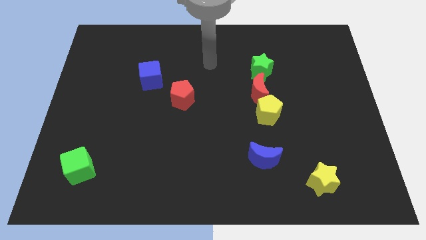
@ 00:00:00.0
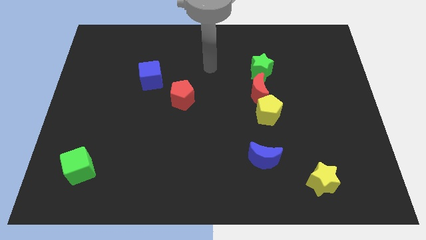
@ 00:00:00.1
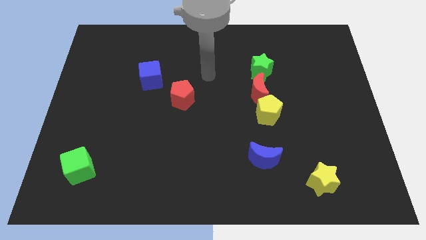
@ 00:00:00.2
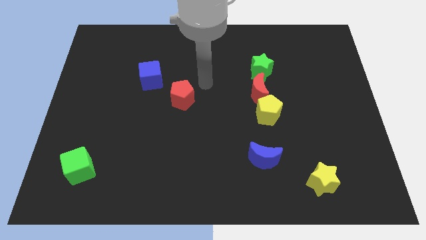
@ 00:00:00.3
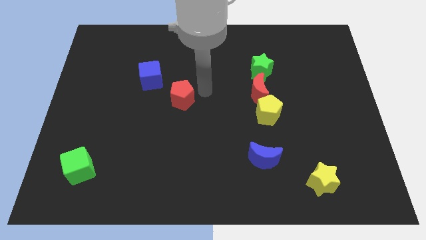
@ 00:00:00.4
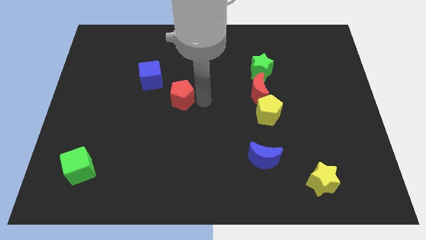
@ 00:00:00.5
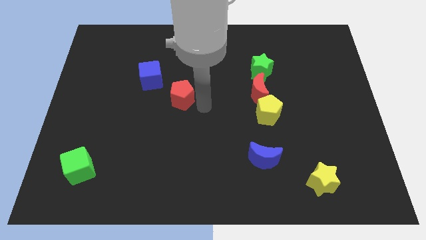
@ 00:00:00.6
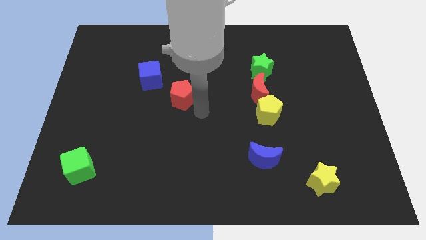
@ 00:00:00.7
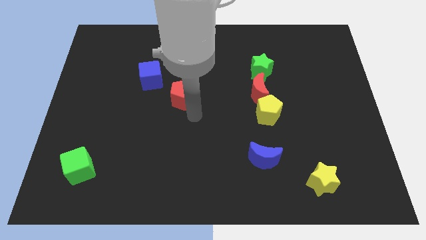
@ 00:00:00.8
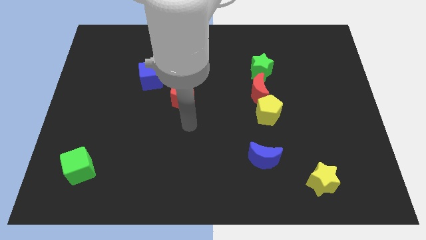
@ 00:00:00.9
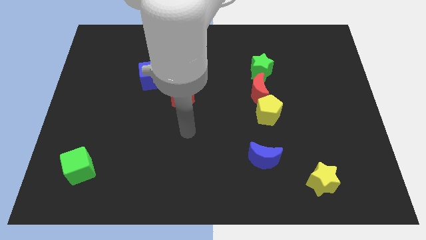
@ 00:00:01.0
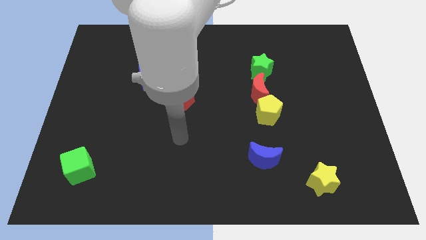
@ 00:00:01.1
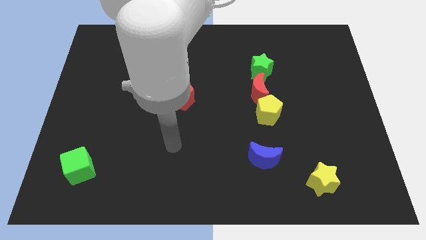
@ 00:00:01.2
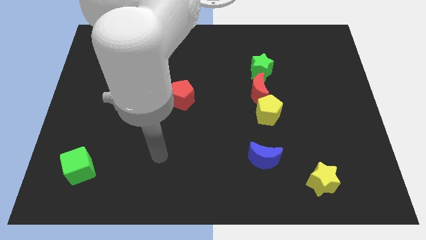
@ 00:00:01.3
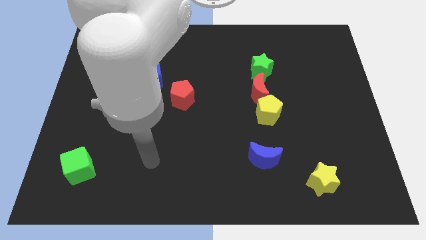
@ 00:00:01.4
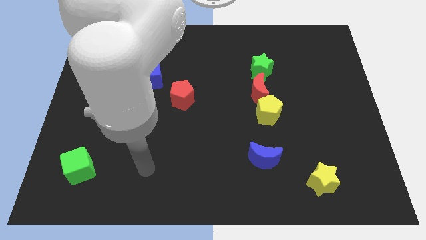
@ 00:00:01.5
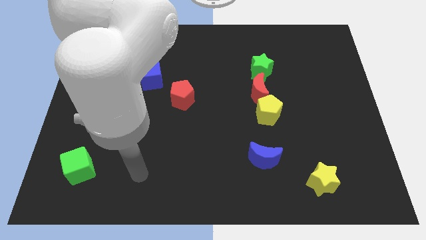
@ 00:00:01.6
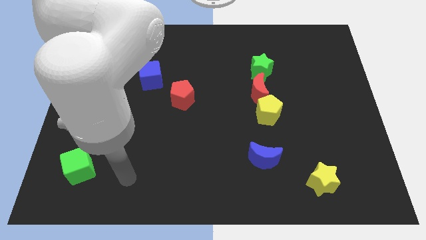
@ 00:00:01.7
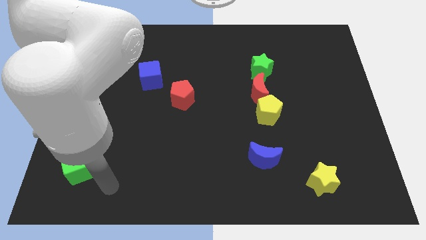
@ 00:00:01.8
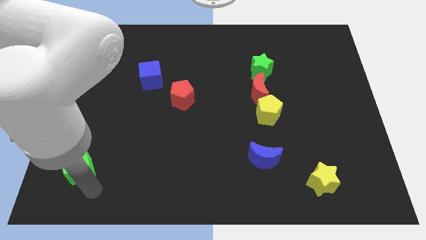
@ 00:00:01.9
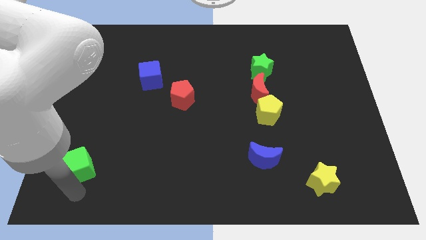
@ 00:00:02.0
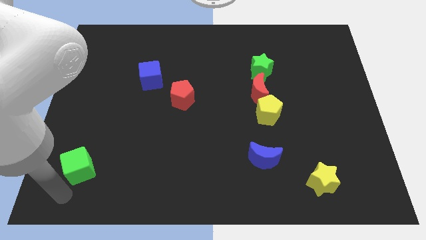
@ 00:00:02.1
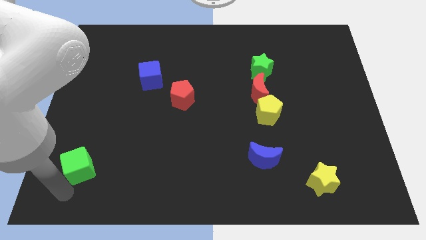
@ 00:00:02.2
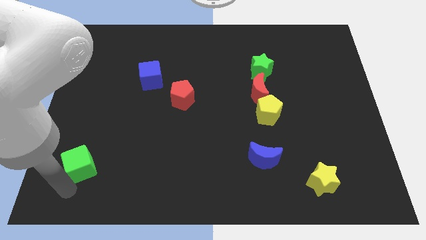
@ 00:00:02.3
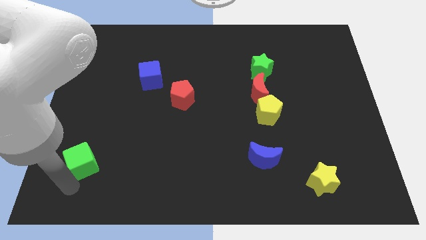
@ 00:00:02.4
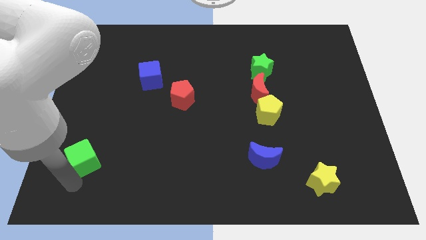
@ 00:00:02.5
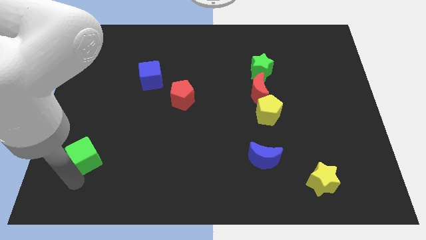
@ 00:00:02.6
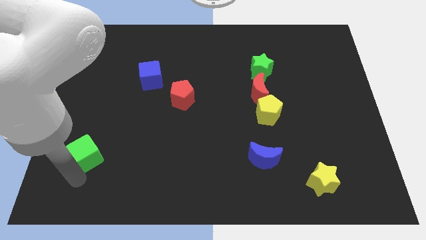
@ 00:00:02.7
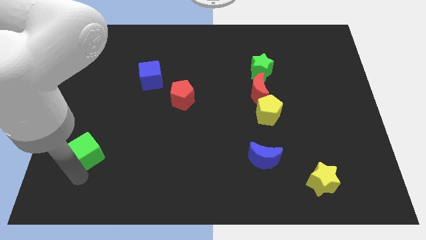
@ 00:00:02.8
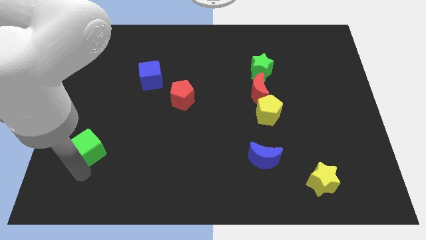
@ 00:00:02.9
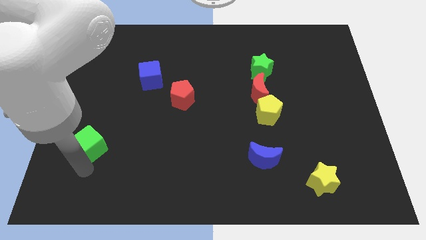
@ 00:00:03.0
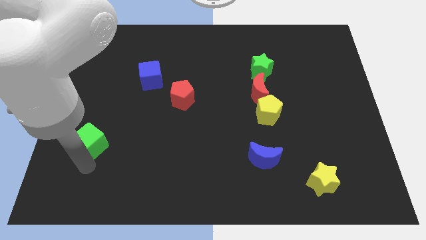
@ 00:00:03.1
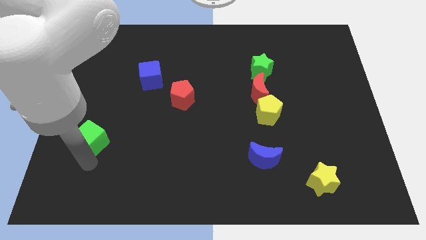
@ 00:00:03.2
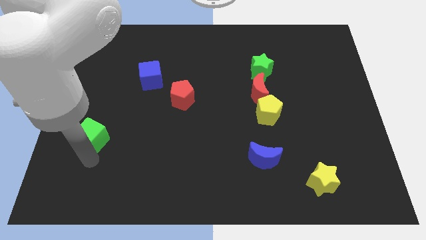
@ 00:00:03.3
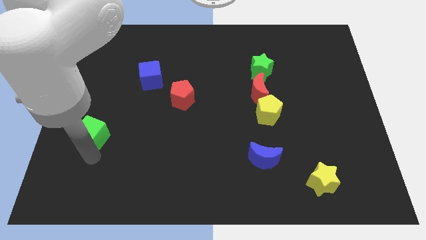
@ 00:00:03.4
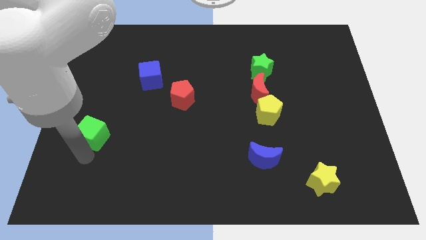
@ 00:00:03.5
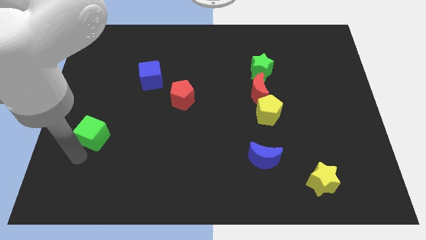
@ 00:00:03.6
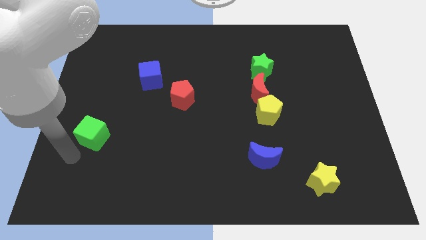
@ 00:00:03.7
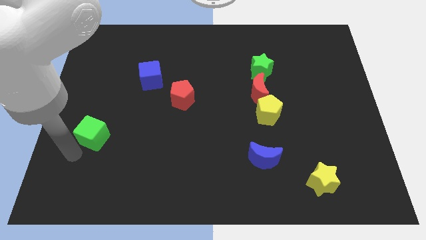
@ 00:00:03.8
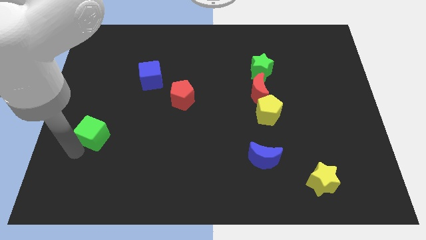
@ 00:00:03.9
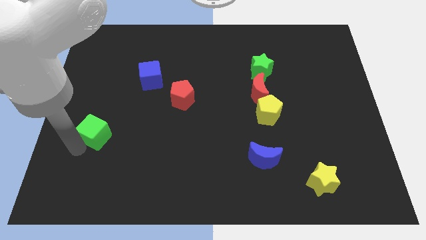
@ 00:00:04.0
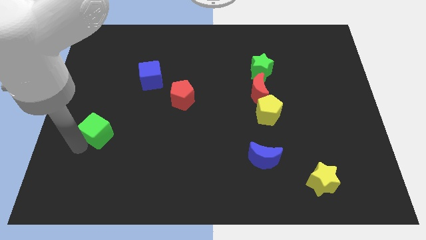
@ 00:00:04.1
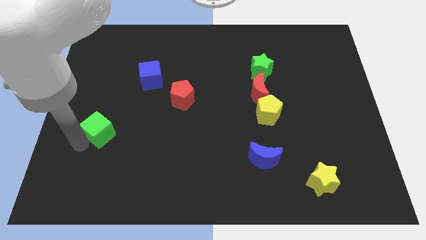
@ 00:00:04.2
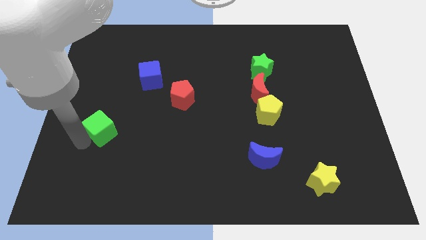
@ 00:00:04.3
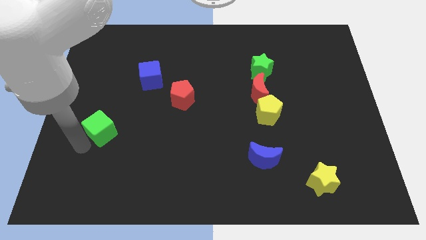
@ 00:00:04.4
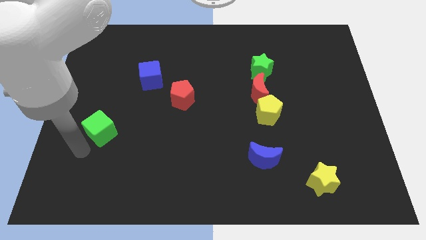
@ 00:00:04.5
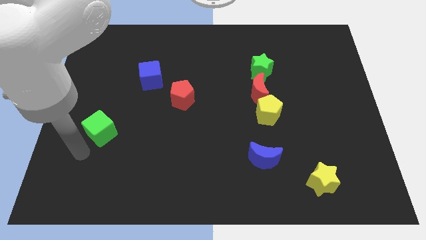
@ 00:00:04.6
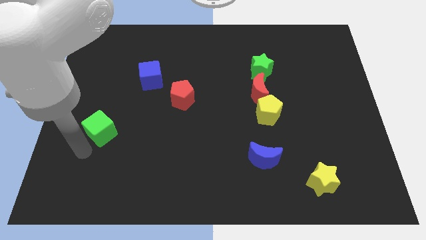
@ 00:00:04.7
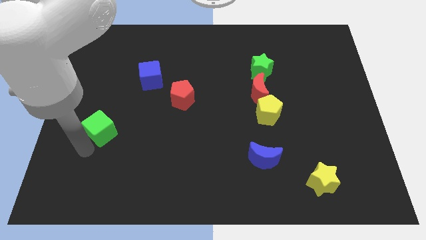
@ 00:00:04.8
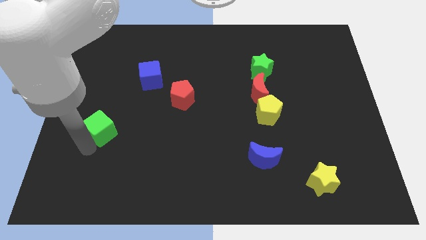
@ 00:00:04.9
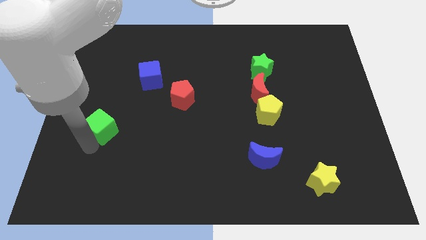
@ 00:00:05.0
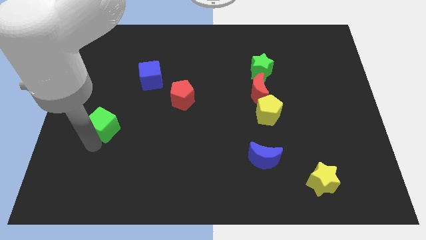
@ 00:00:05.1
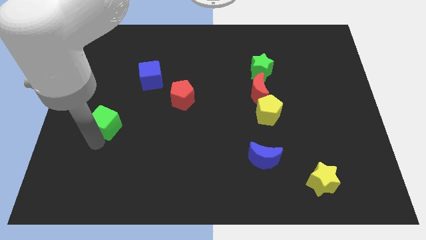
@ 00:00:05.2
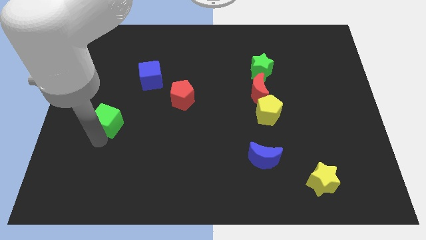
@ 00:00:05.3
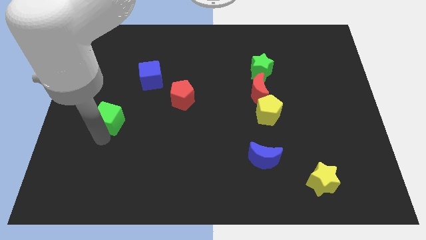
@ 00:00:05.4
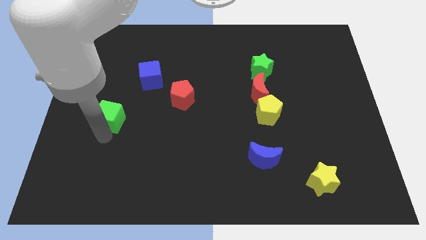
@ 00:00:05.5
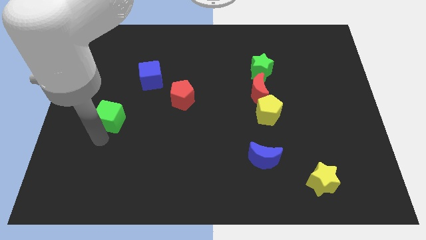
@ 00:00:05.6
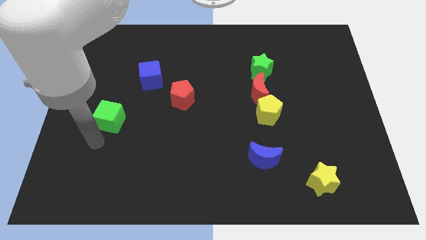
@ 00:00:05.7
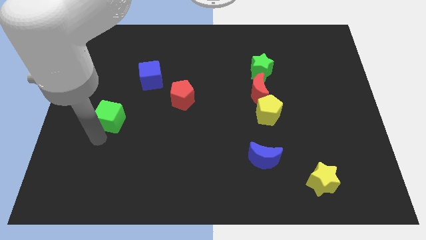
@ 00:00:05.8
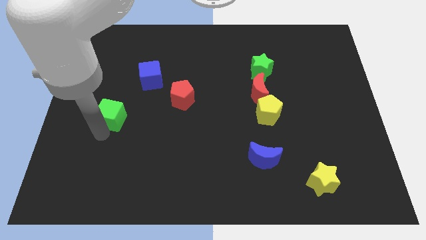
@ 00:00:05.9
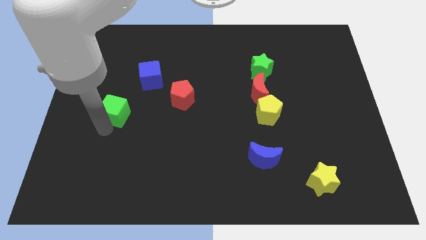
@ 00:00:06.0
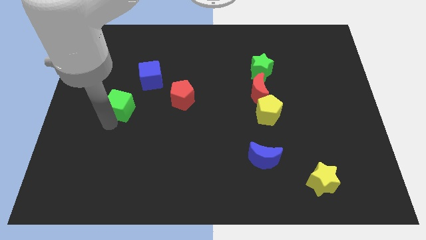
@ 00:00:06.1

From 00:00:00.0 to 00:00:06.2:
put the green cube to the bottom left of the blue cube

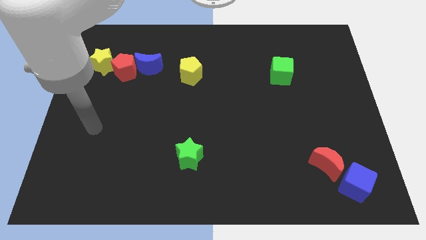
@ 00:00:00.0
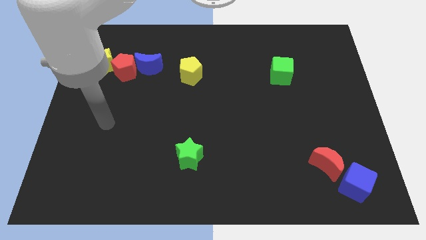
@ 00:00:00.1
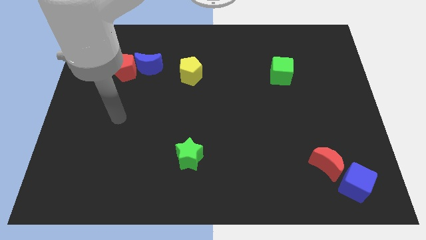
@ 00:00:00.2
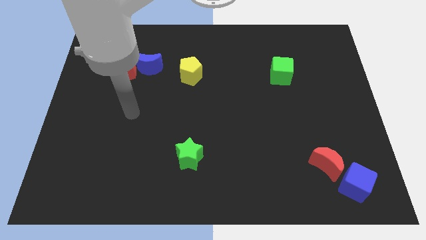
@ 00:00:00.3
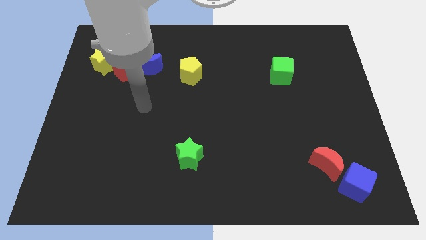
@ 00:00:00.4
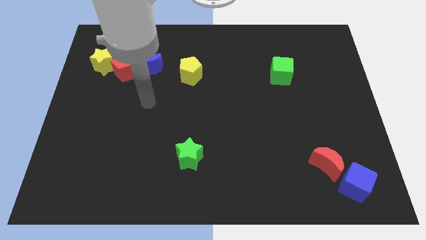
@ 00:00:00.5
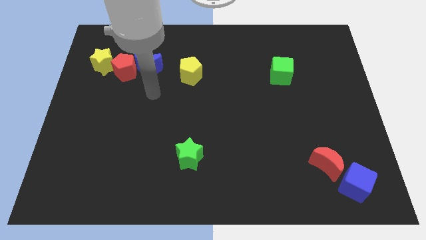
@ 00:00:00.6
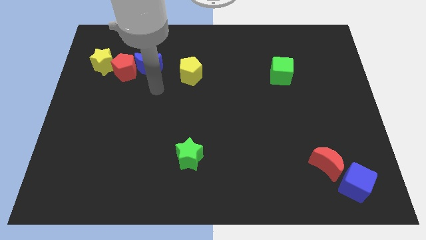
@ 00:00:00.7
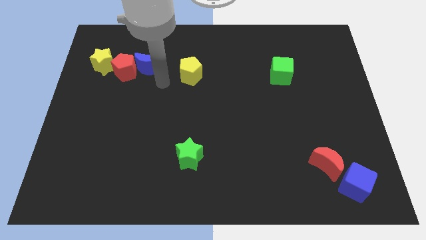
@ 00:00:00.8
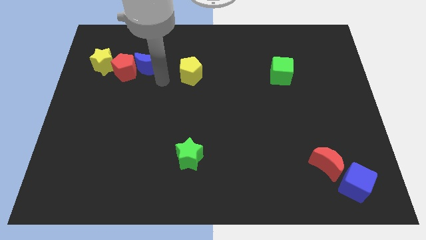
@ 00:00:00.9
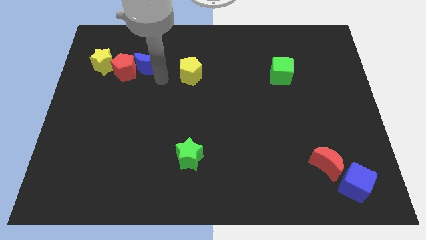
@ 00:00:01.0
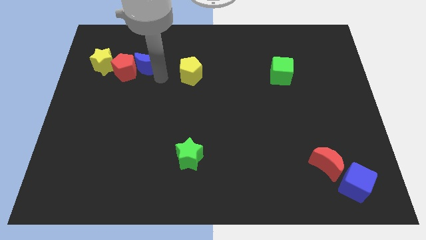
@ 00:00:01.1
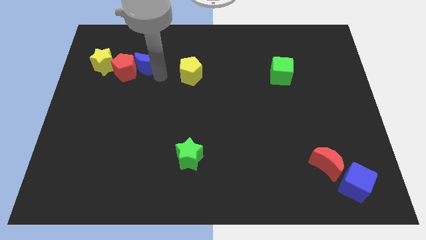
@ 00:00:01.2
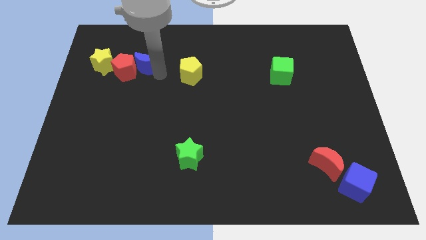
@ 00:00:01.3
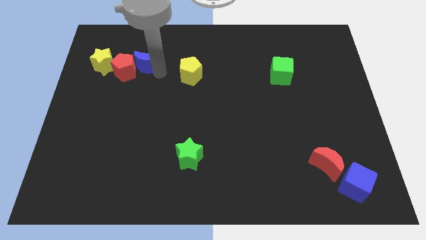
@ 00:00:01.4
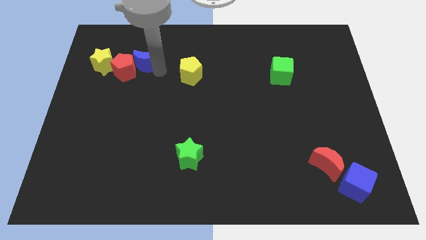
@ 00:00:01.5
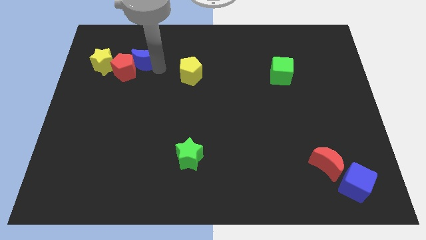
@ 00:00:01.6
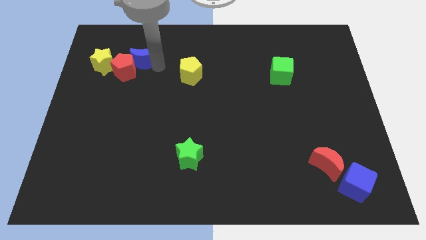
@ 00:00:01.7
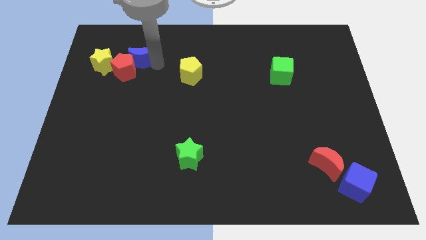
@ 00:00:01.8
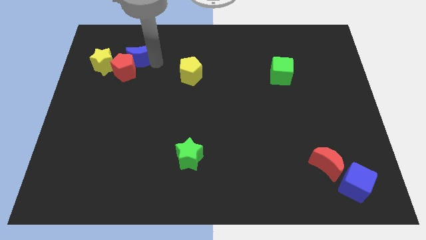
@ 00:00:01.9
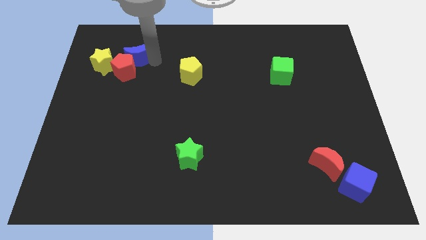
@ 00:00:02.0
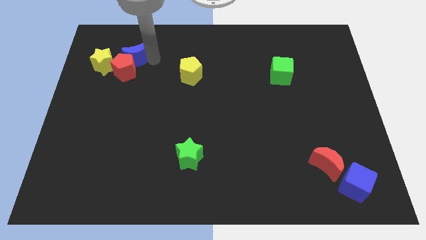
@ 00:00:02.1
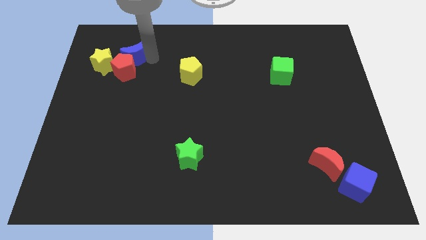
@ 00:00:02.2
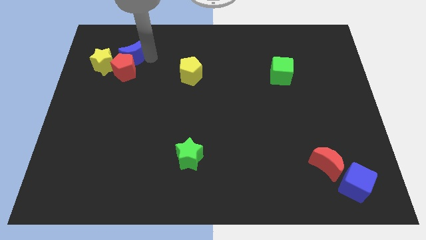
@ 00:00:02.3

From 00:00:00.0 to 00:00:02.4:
put the blue moon to the top left of the red pentagon
